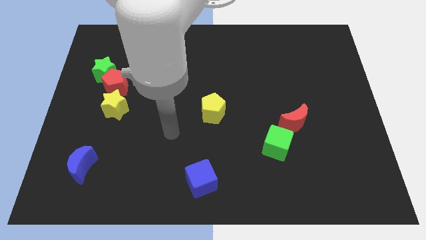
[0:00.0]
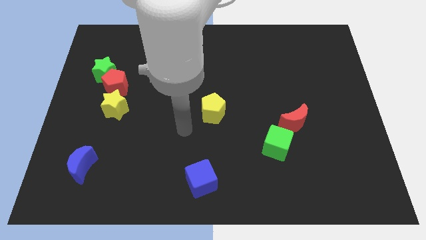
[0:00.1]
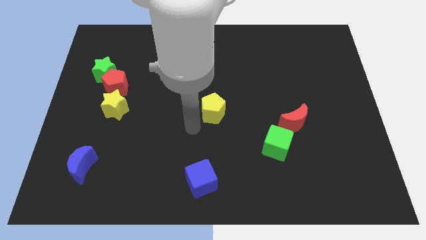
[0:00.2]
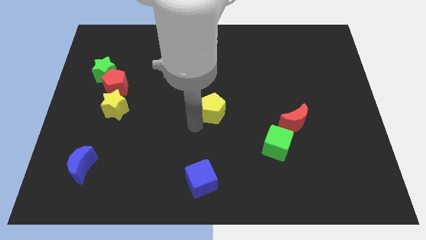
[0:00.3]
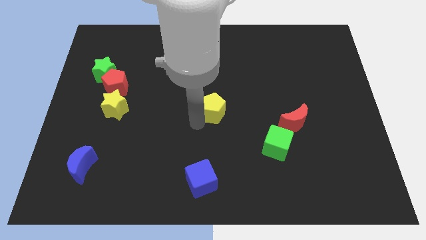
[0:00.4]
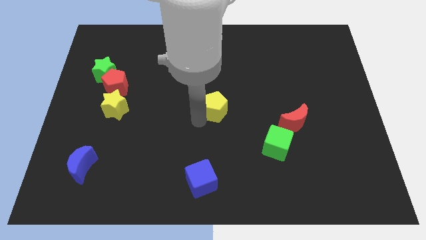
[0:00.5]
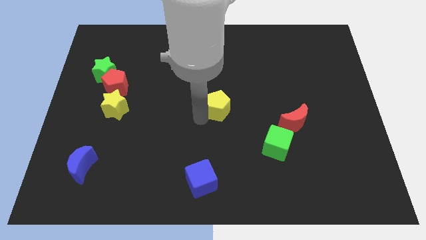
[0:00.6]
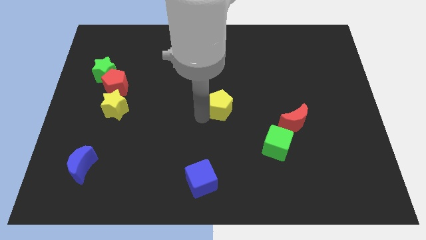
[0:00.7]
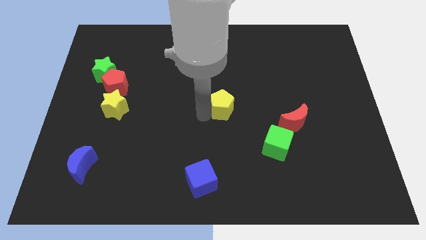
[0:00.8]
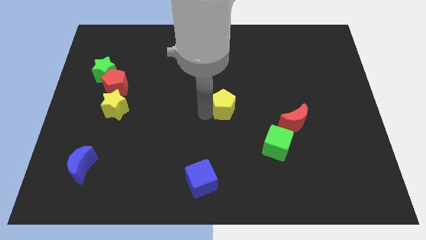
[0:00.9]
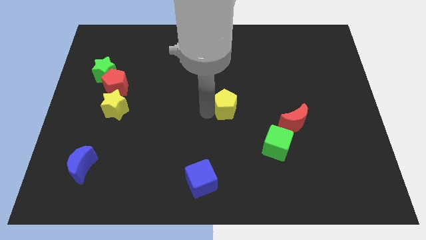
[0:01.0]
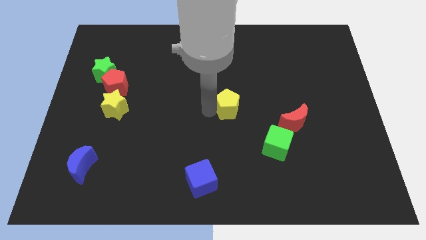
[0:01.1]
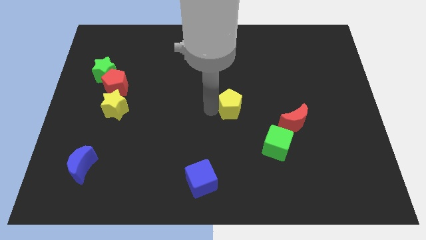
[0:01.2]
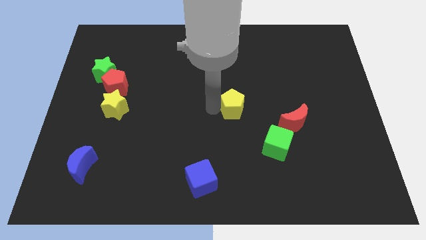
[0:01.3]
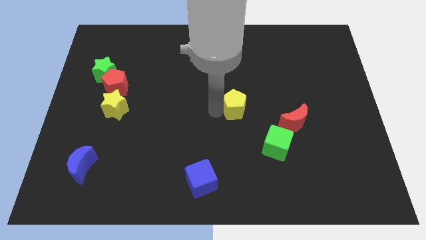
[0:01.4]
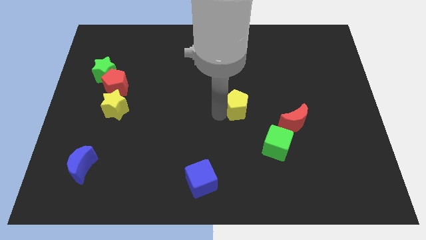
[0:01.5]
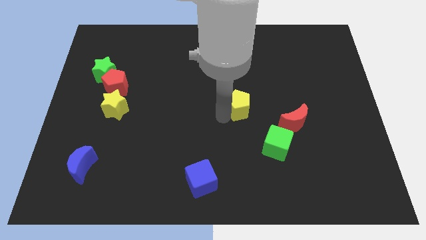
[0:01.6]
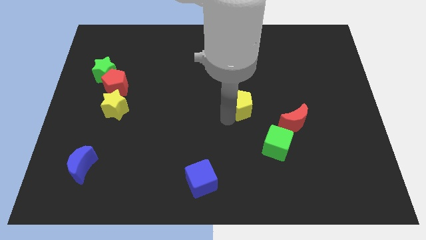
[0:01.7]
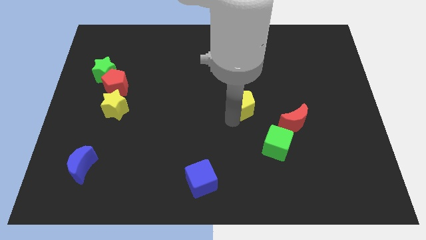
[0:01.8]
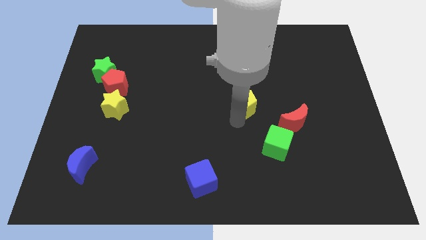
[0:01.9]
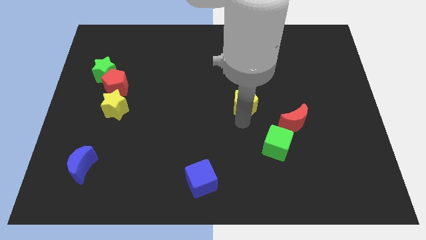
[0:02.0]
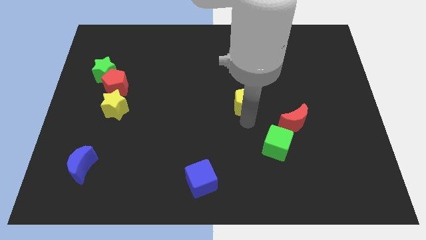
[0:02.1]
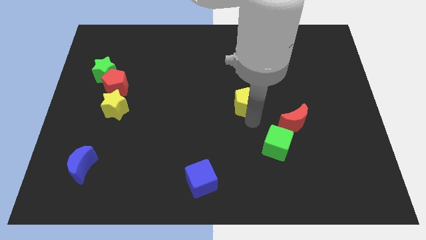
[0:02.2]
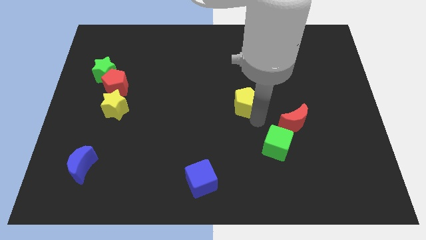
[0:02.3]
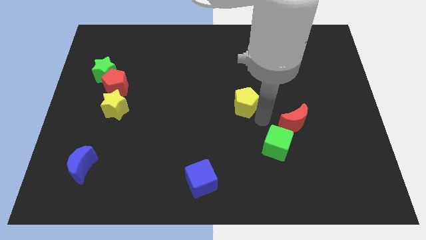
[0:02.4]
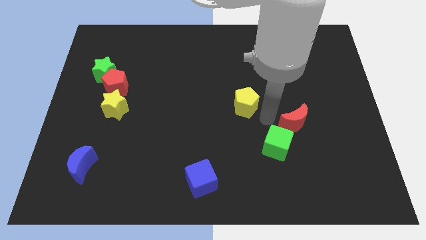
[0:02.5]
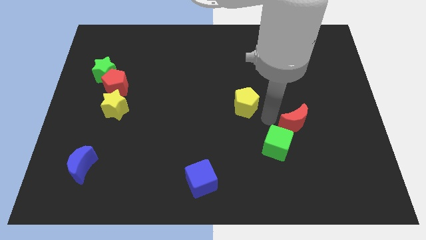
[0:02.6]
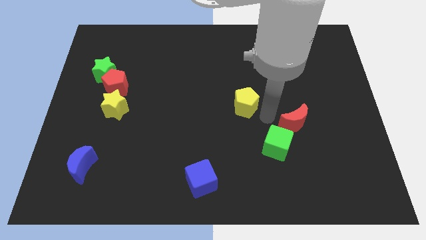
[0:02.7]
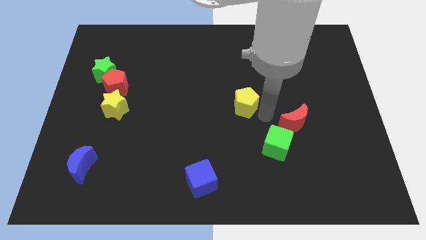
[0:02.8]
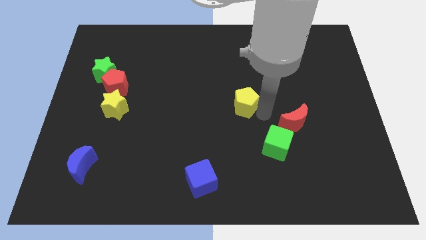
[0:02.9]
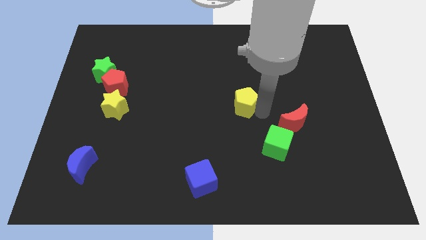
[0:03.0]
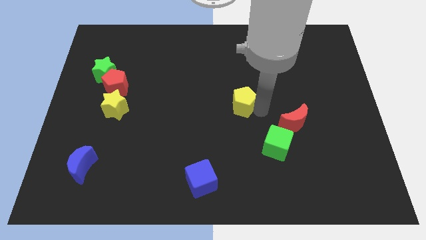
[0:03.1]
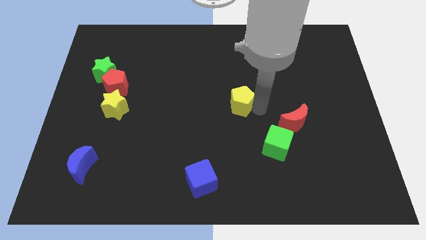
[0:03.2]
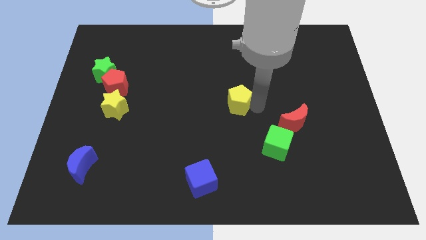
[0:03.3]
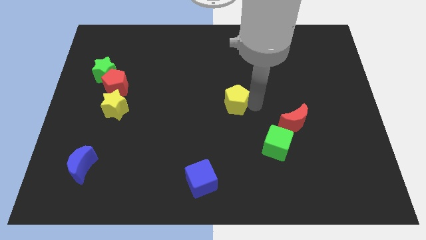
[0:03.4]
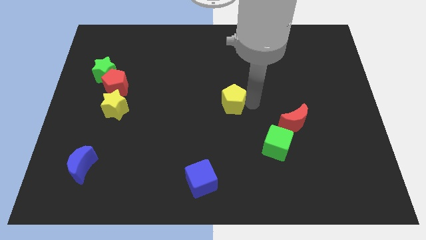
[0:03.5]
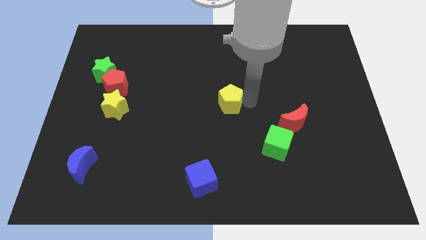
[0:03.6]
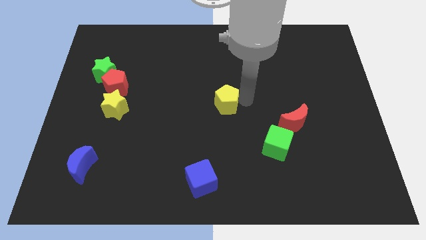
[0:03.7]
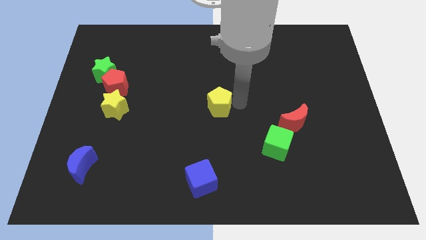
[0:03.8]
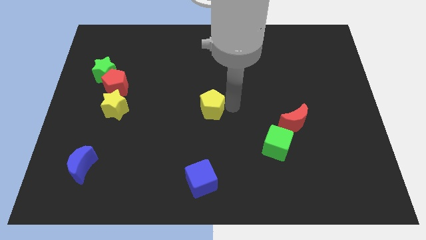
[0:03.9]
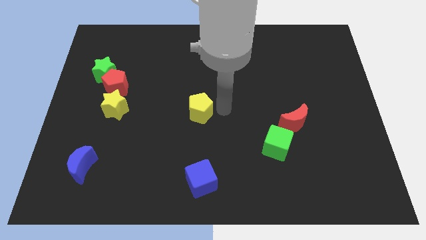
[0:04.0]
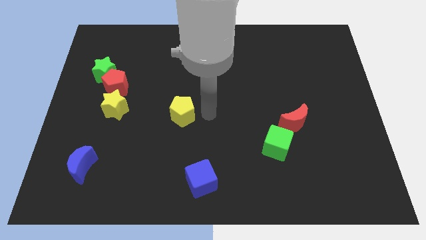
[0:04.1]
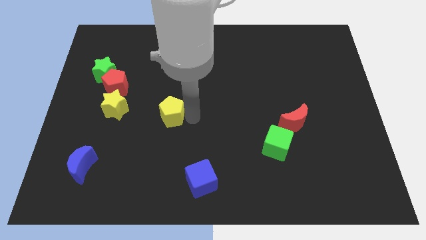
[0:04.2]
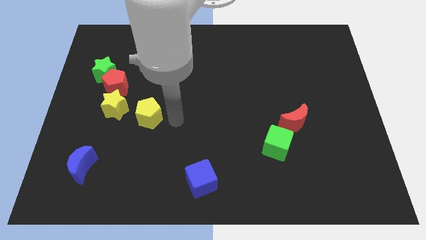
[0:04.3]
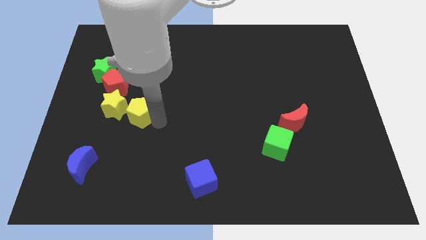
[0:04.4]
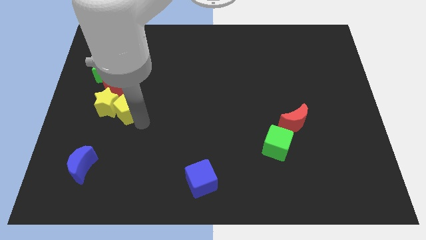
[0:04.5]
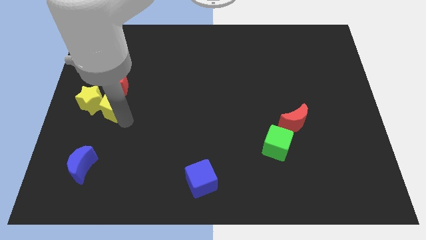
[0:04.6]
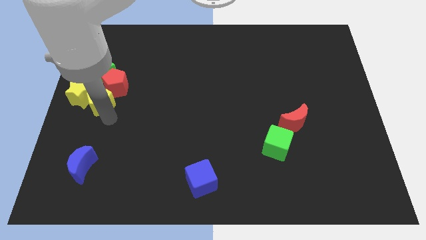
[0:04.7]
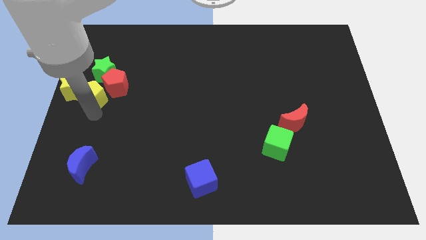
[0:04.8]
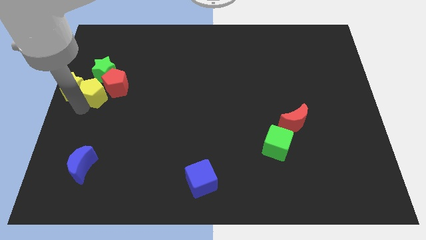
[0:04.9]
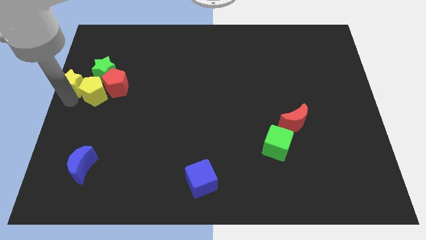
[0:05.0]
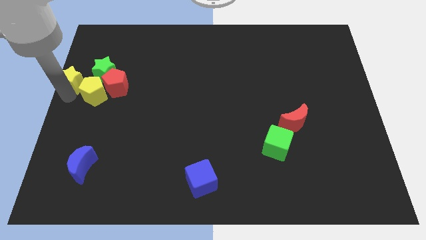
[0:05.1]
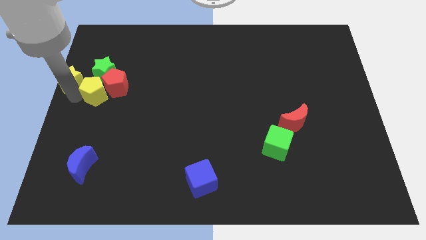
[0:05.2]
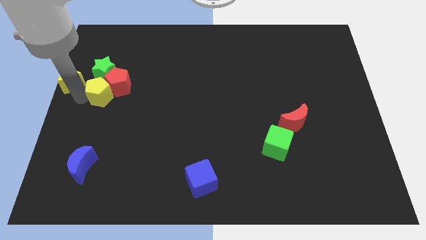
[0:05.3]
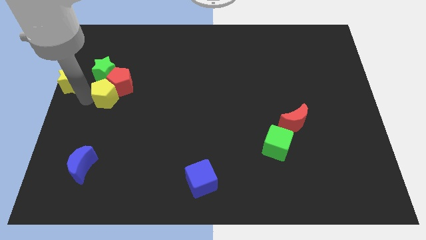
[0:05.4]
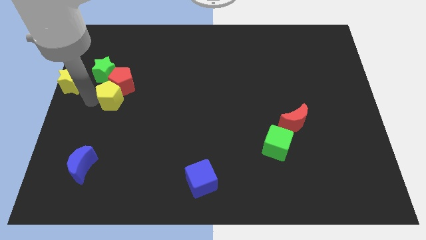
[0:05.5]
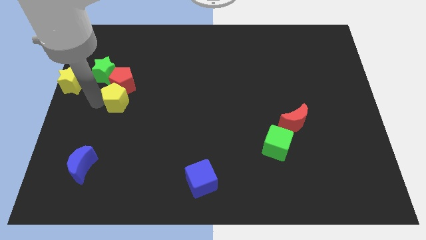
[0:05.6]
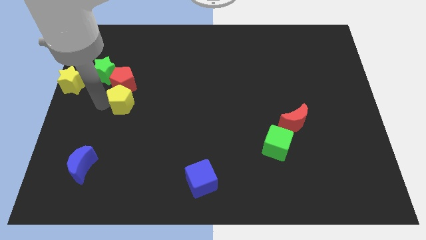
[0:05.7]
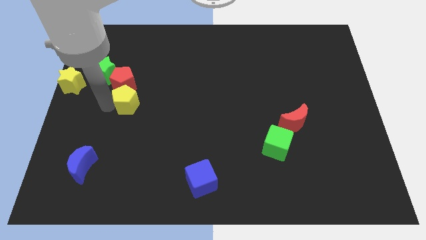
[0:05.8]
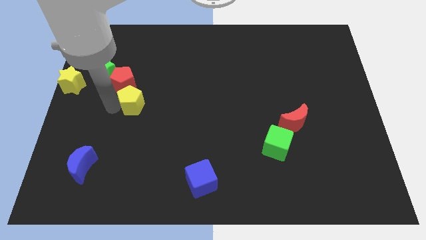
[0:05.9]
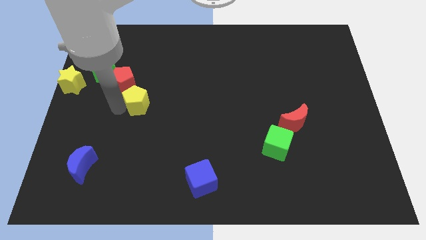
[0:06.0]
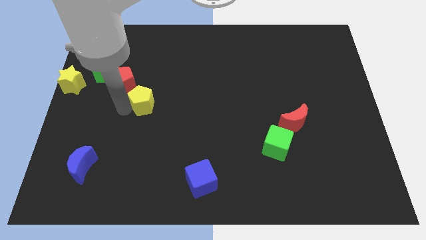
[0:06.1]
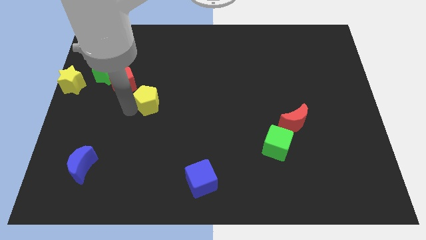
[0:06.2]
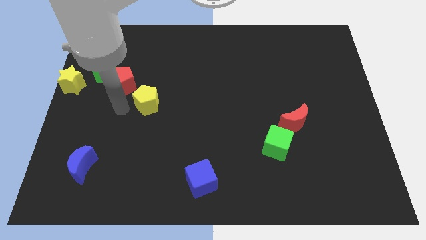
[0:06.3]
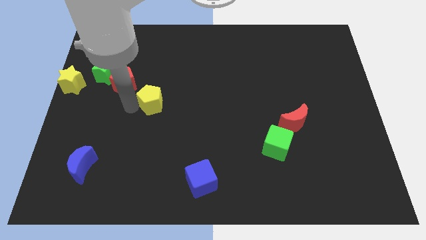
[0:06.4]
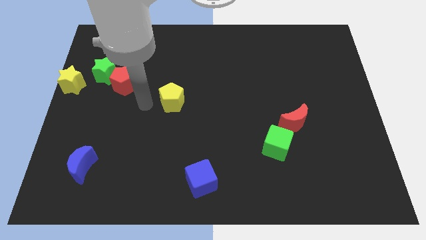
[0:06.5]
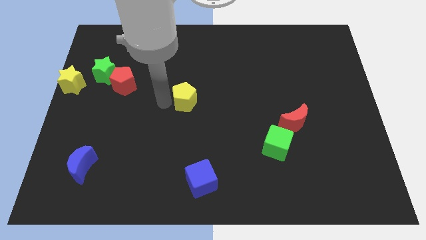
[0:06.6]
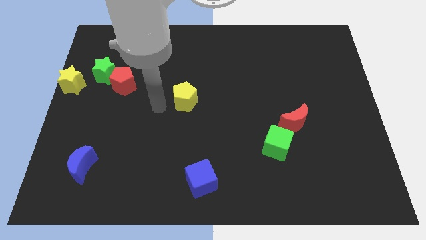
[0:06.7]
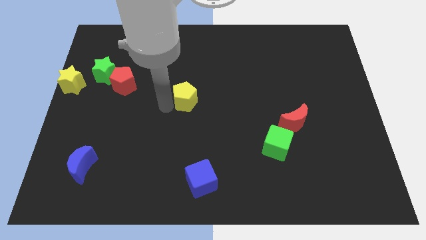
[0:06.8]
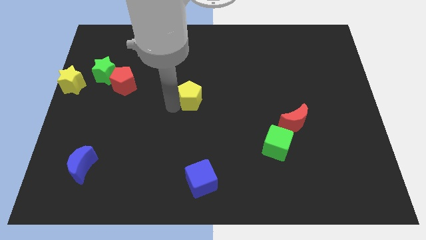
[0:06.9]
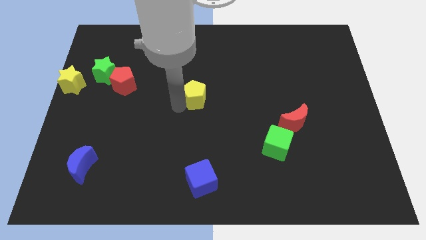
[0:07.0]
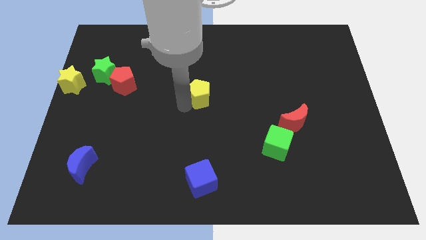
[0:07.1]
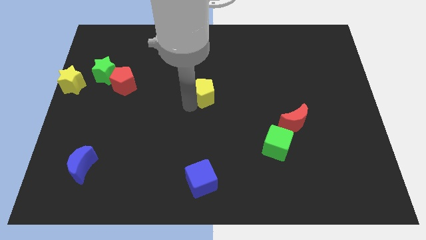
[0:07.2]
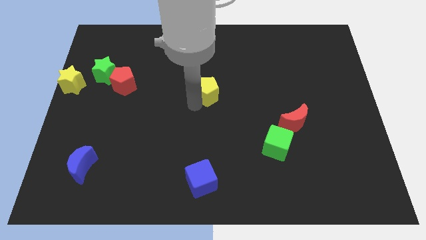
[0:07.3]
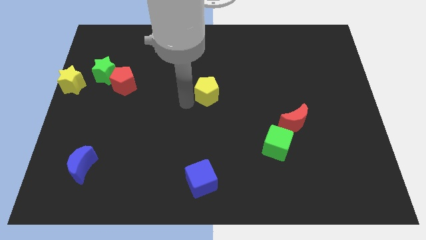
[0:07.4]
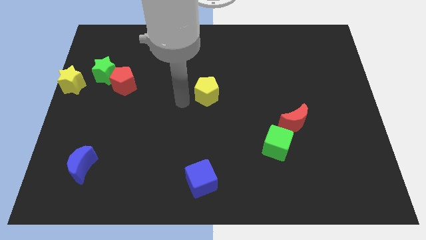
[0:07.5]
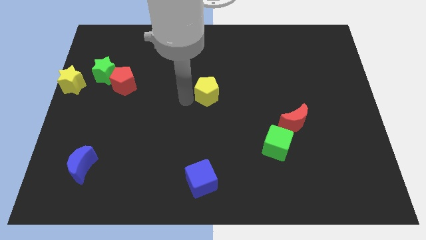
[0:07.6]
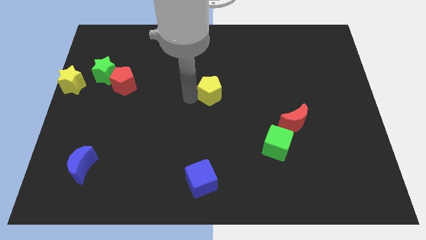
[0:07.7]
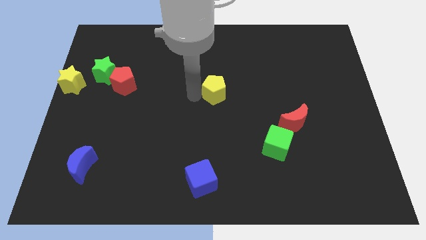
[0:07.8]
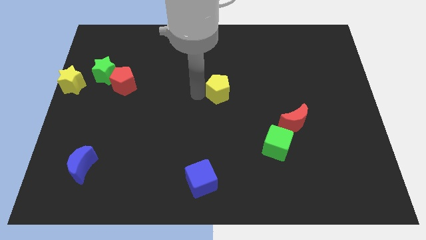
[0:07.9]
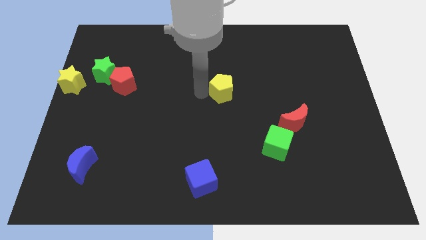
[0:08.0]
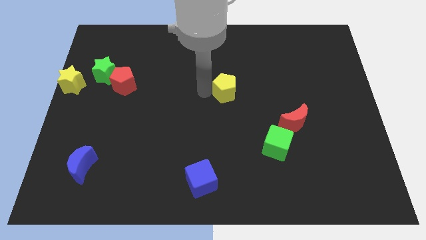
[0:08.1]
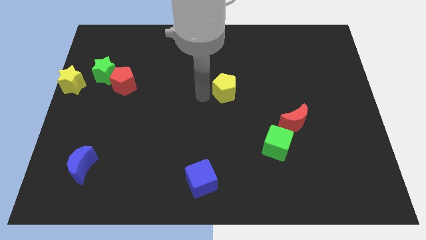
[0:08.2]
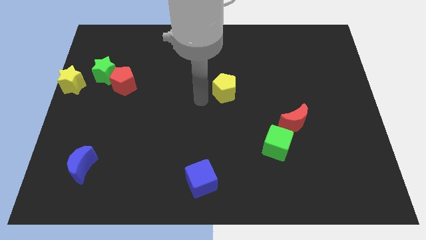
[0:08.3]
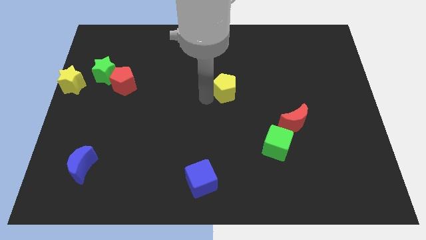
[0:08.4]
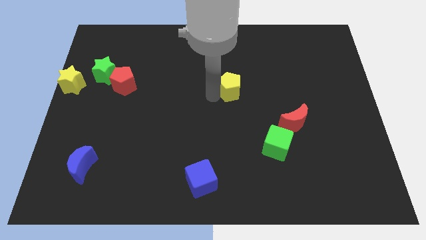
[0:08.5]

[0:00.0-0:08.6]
slightly slide the yellow pentagon diagonally up and to the right
